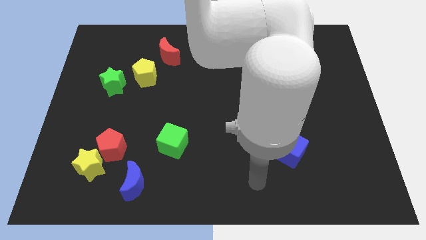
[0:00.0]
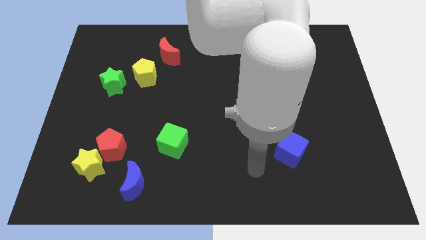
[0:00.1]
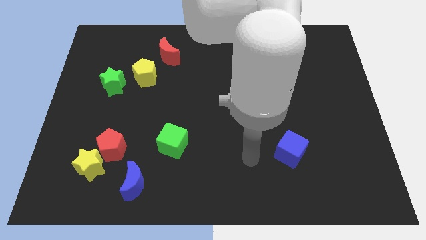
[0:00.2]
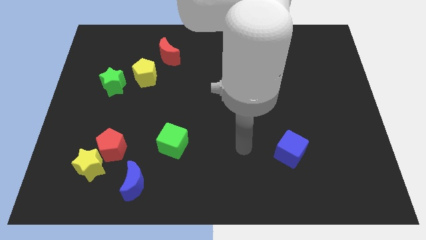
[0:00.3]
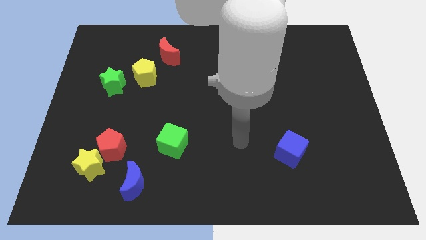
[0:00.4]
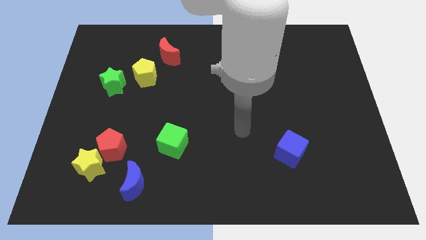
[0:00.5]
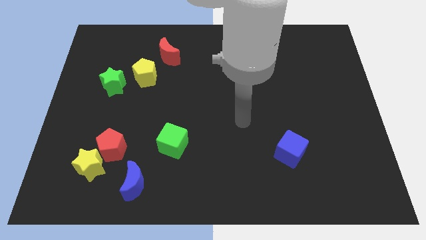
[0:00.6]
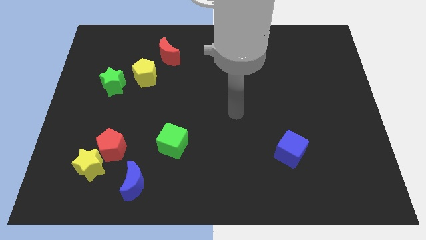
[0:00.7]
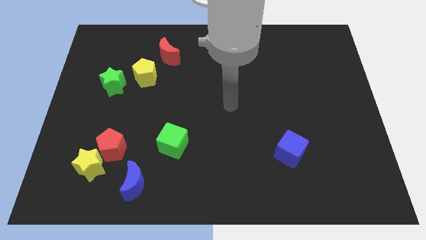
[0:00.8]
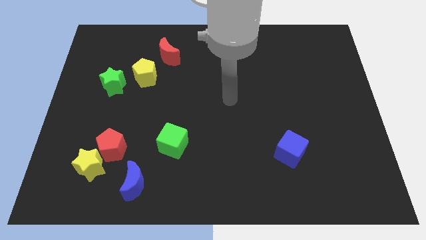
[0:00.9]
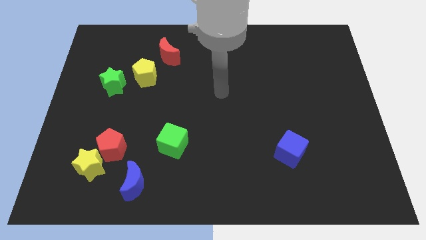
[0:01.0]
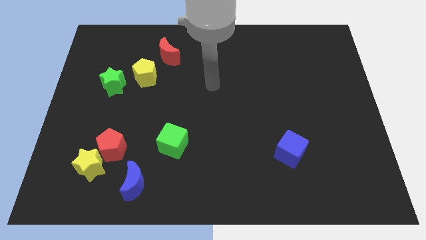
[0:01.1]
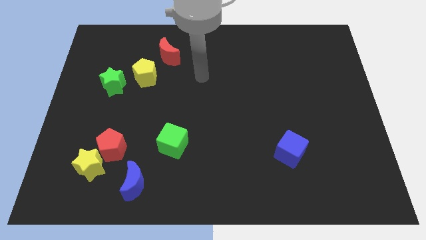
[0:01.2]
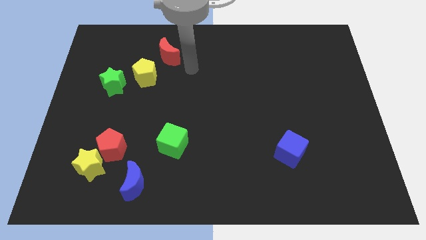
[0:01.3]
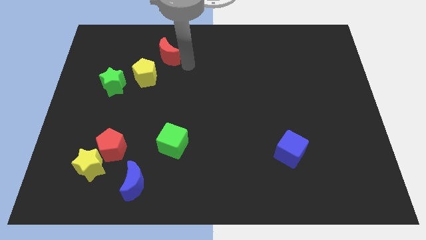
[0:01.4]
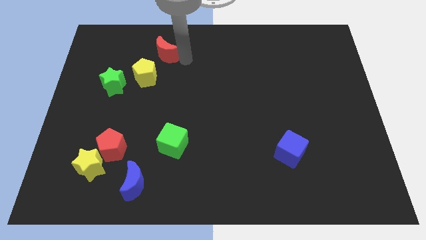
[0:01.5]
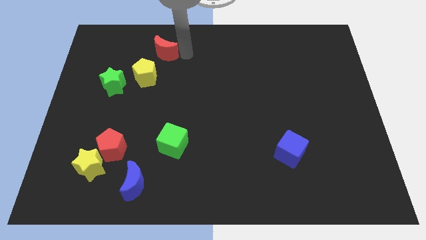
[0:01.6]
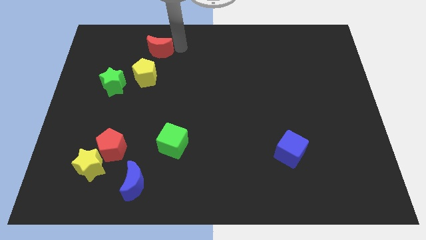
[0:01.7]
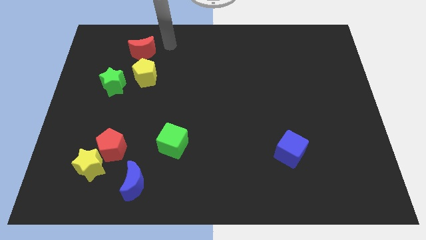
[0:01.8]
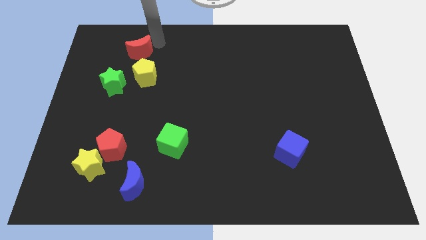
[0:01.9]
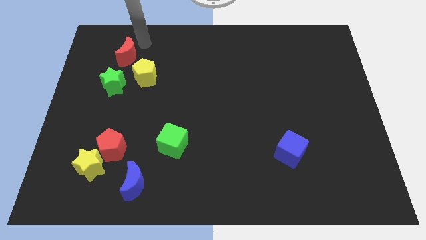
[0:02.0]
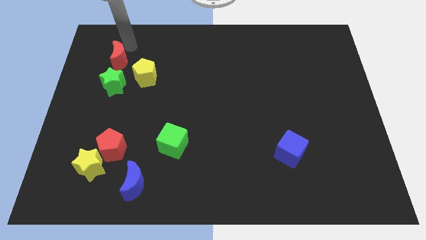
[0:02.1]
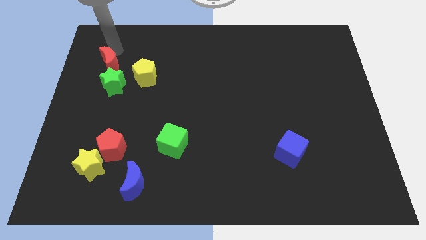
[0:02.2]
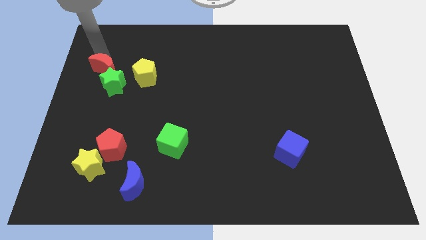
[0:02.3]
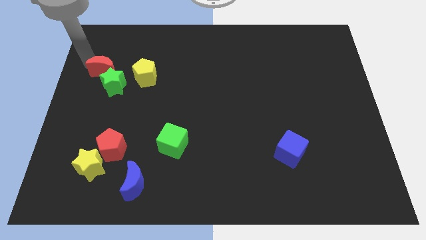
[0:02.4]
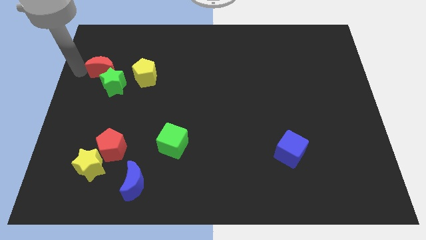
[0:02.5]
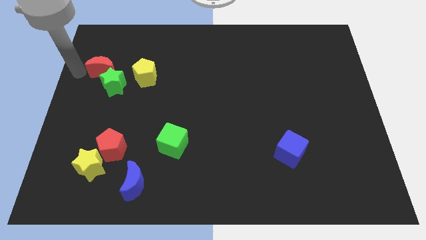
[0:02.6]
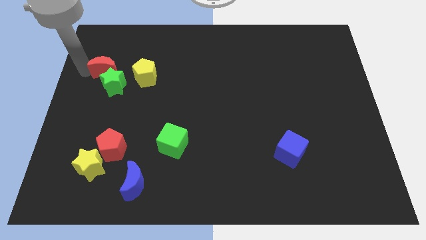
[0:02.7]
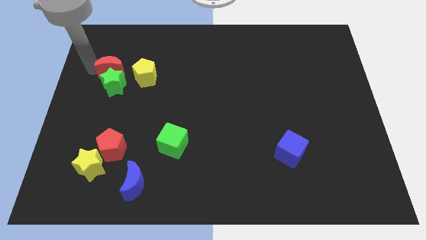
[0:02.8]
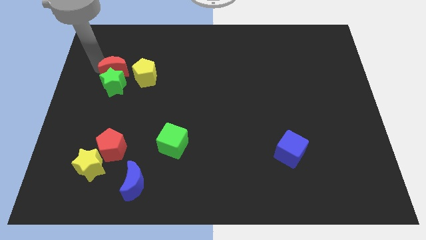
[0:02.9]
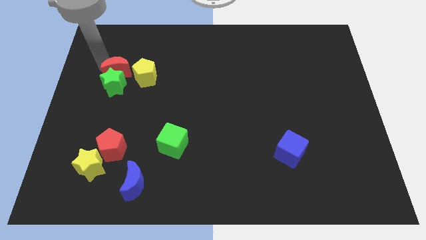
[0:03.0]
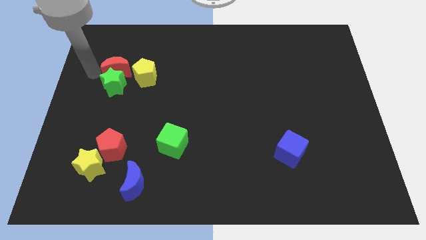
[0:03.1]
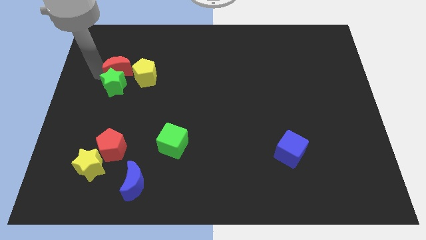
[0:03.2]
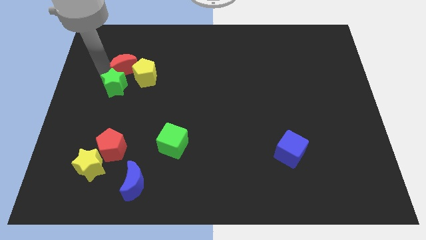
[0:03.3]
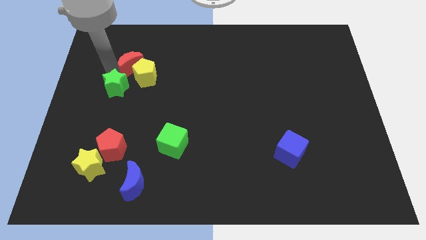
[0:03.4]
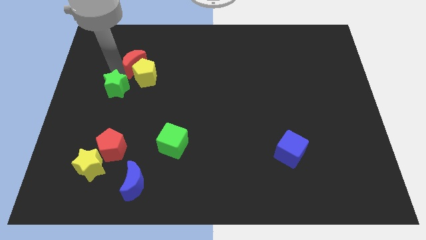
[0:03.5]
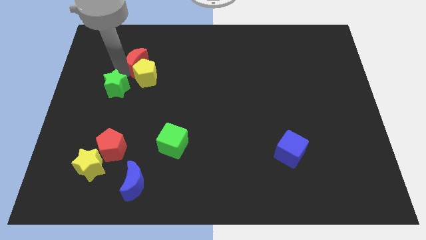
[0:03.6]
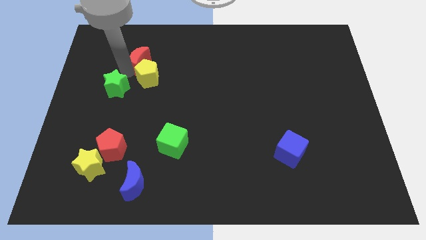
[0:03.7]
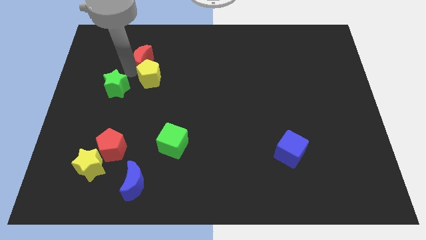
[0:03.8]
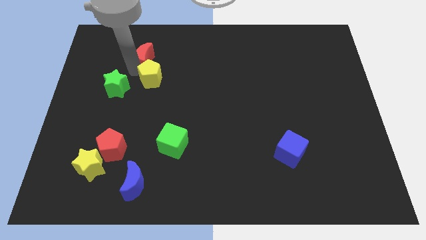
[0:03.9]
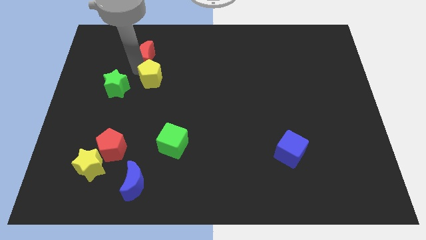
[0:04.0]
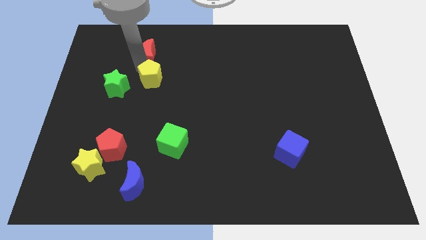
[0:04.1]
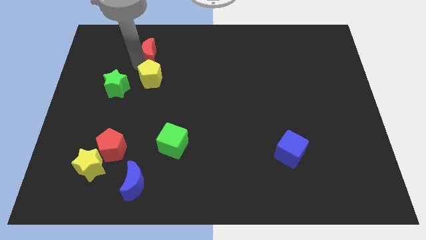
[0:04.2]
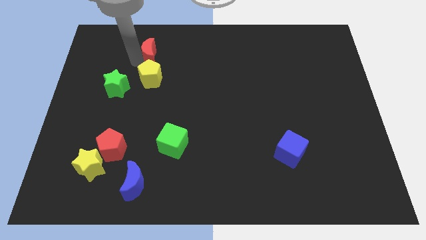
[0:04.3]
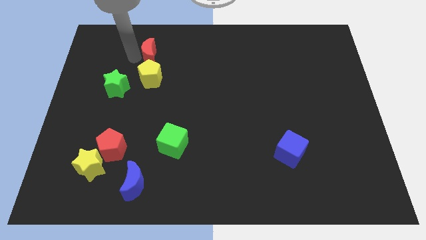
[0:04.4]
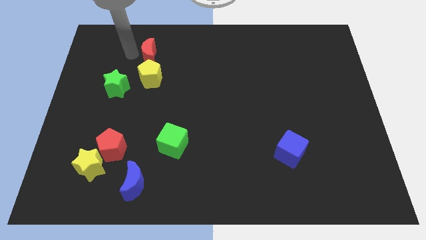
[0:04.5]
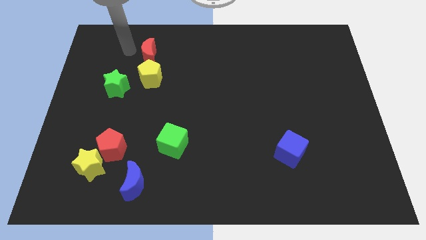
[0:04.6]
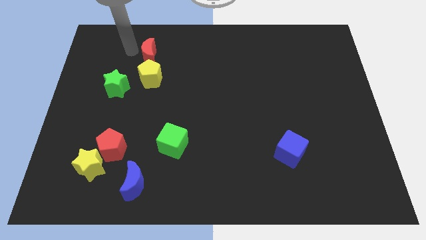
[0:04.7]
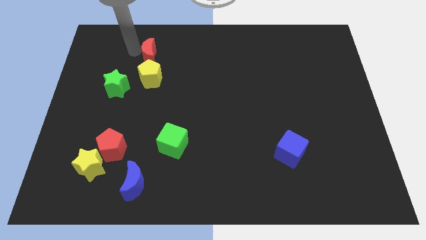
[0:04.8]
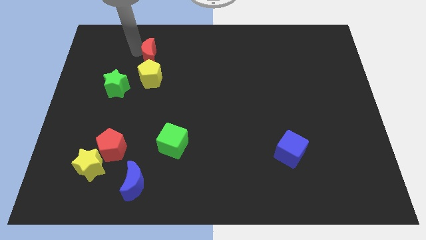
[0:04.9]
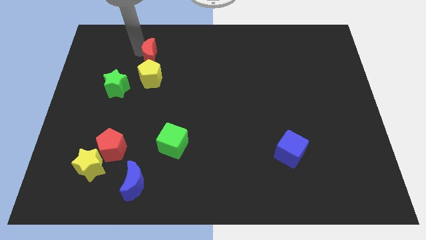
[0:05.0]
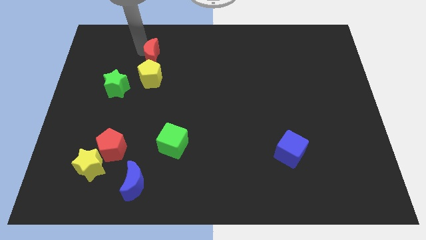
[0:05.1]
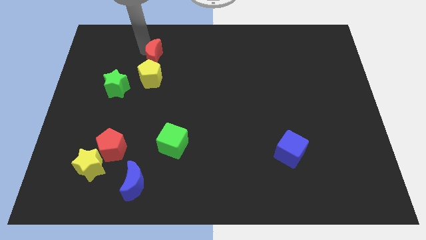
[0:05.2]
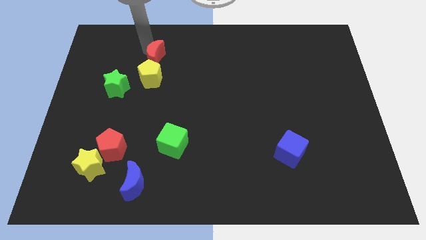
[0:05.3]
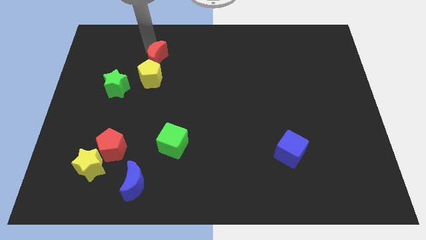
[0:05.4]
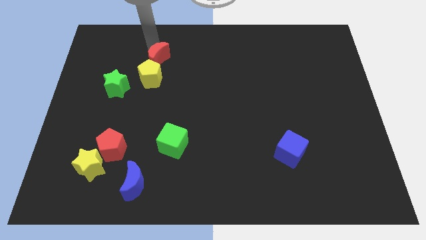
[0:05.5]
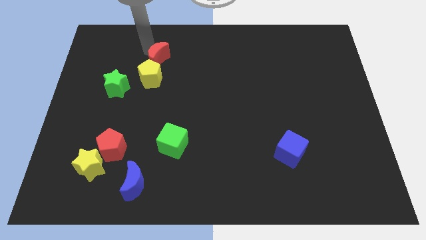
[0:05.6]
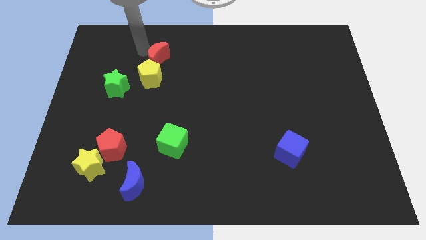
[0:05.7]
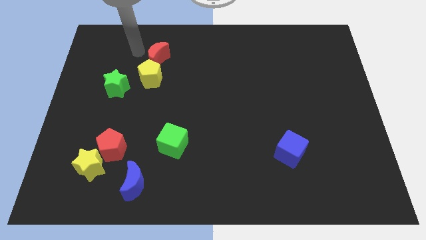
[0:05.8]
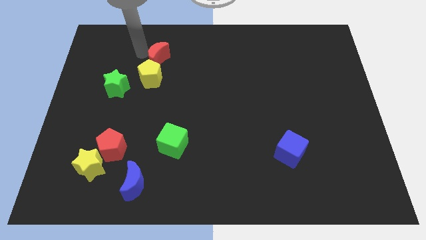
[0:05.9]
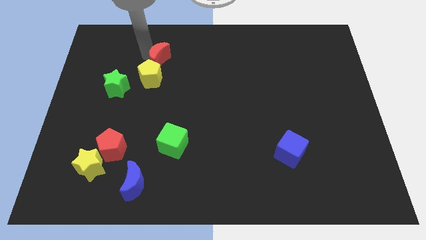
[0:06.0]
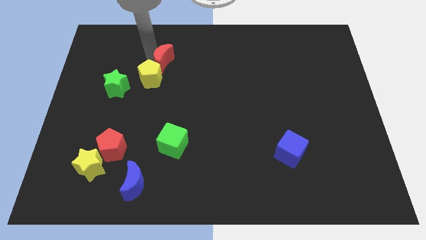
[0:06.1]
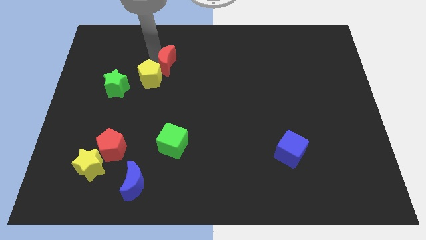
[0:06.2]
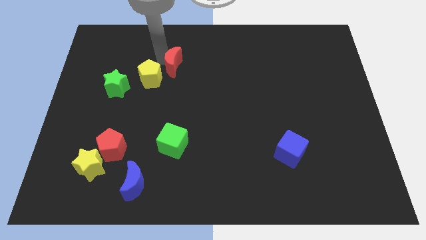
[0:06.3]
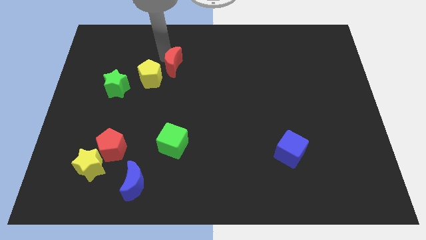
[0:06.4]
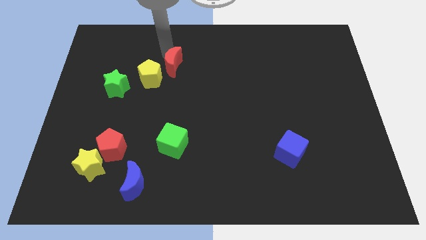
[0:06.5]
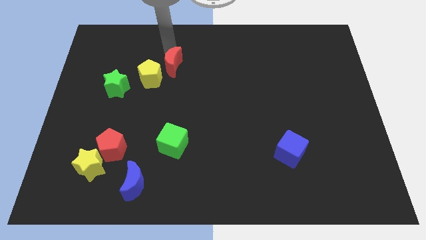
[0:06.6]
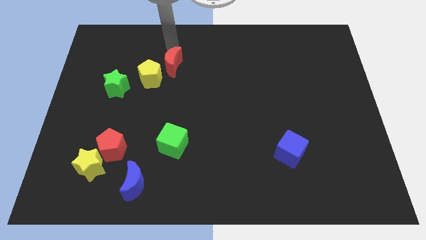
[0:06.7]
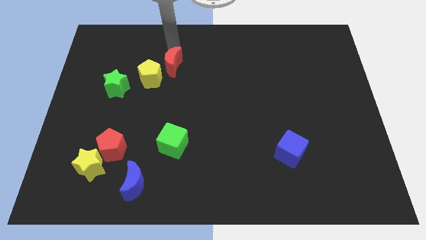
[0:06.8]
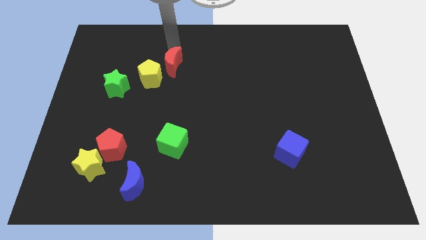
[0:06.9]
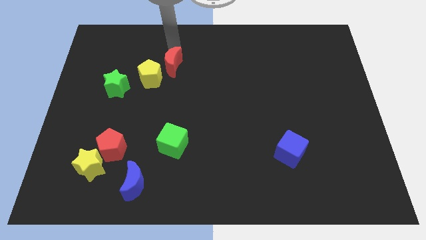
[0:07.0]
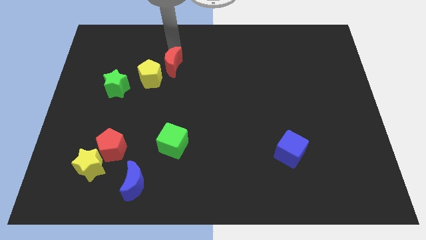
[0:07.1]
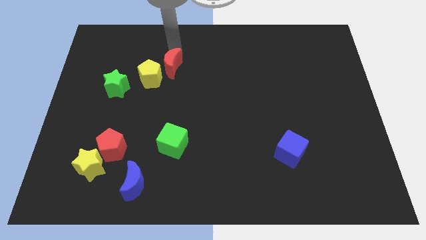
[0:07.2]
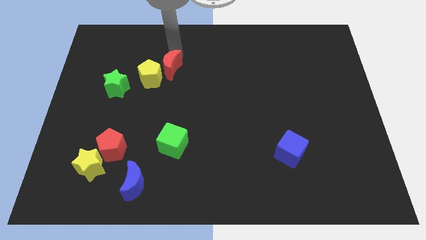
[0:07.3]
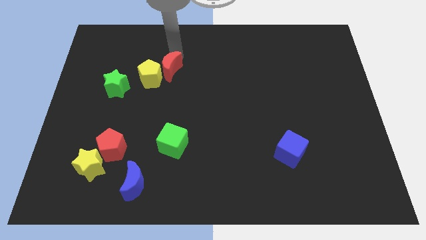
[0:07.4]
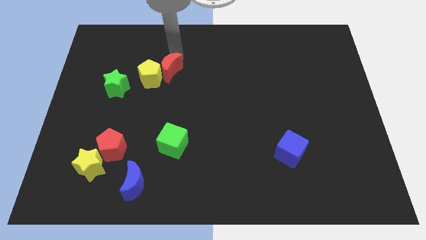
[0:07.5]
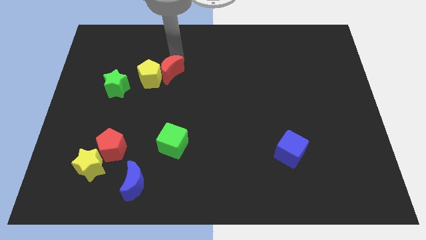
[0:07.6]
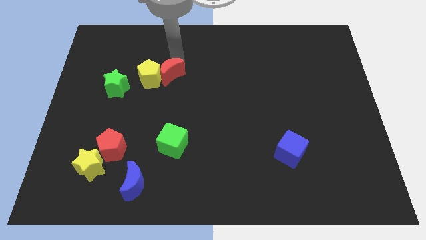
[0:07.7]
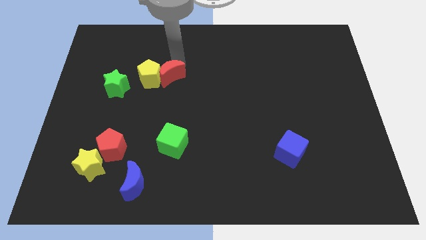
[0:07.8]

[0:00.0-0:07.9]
move the red moon downwards a little
